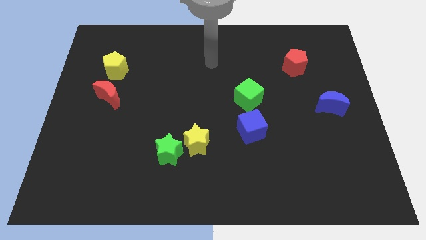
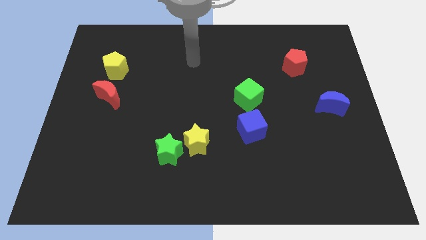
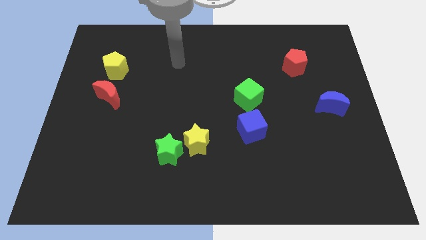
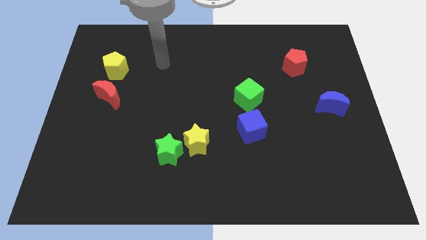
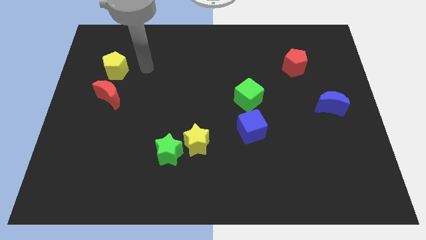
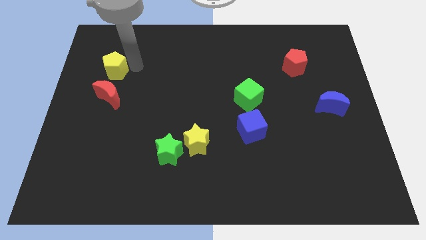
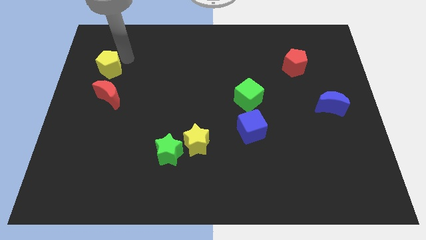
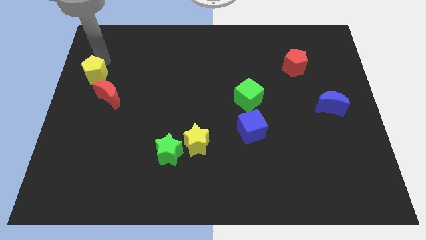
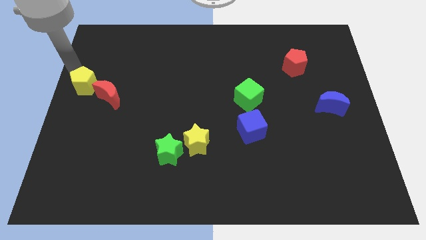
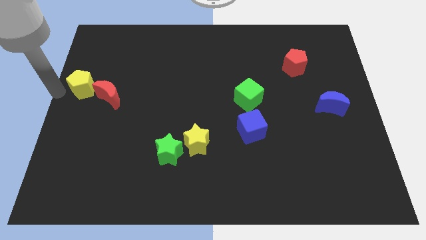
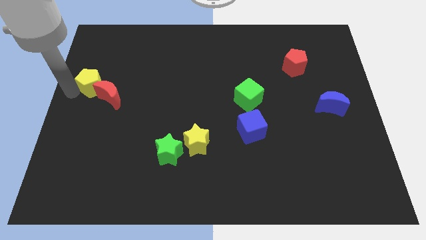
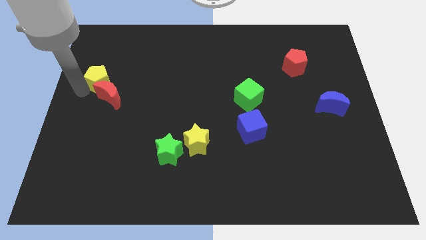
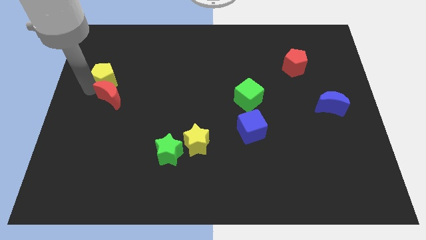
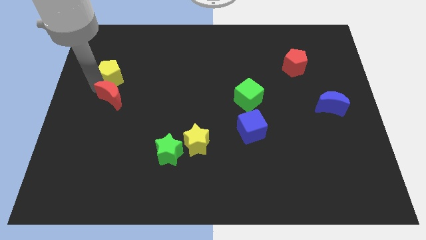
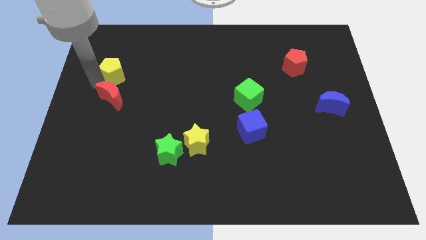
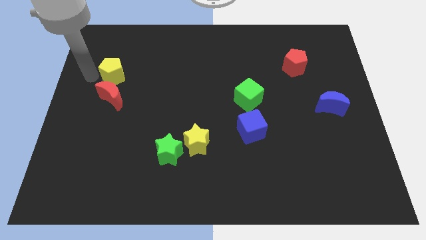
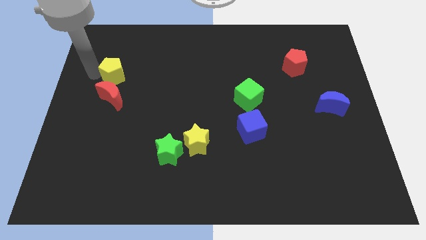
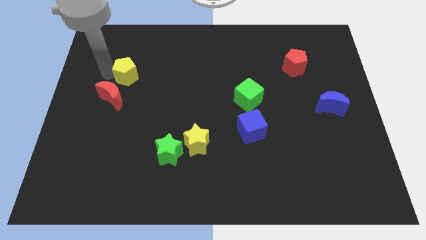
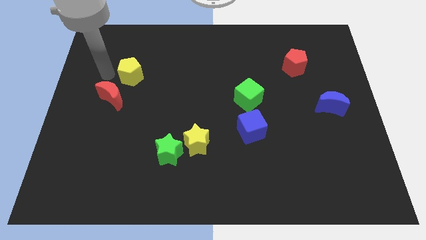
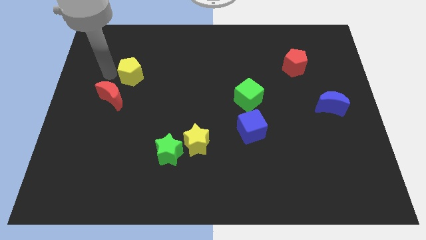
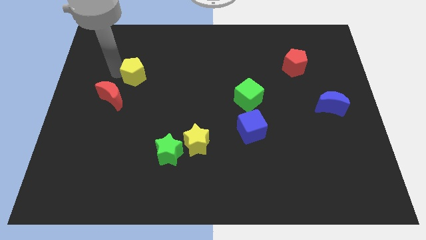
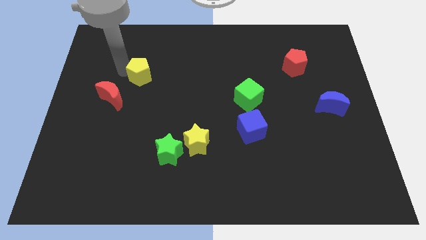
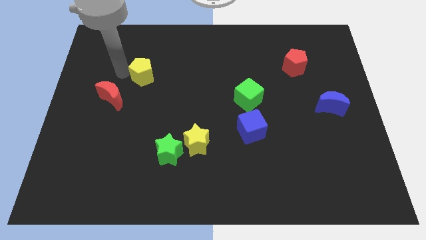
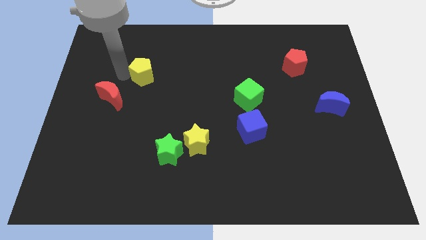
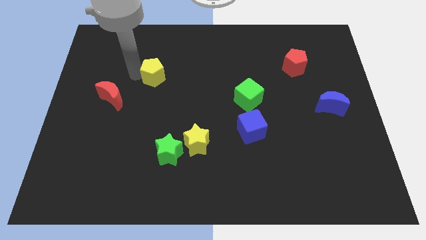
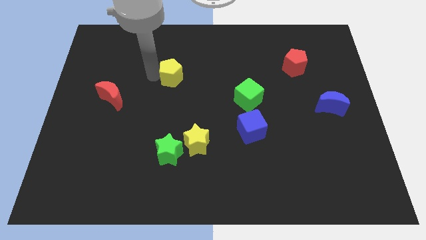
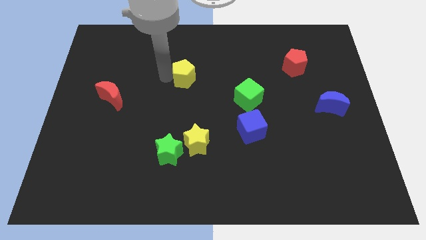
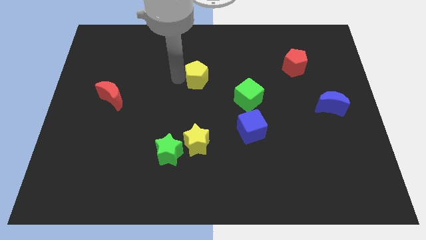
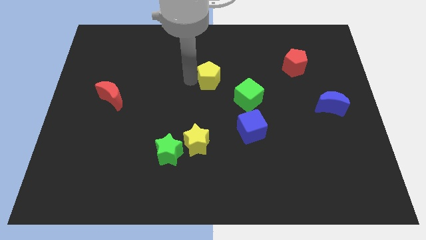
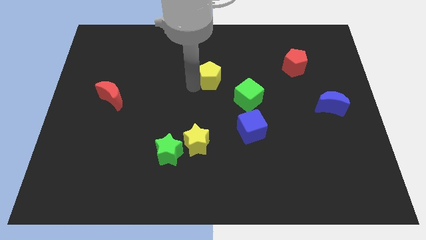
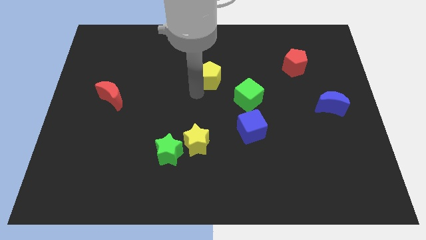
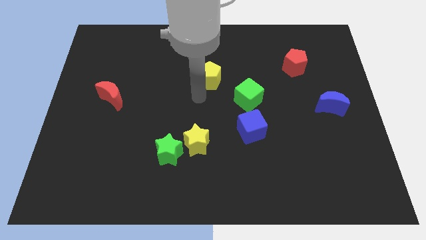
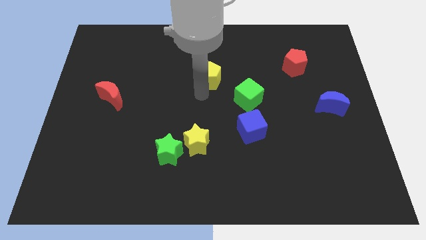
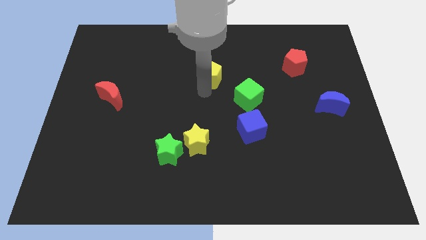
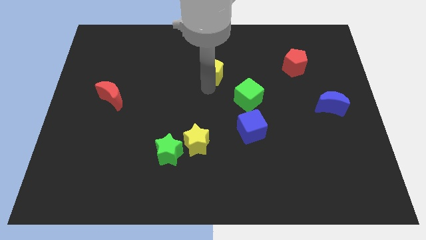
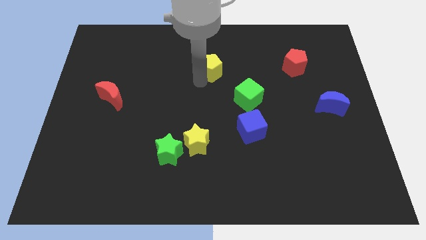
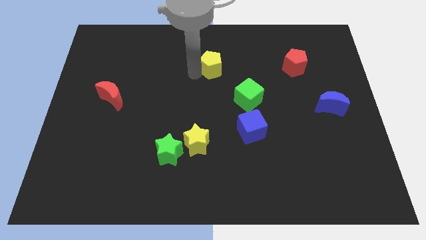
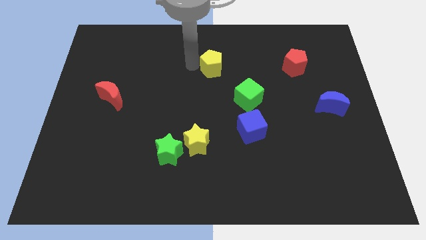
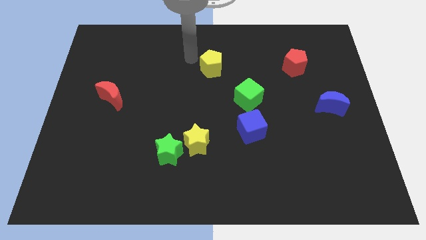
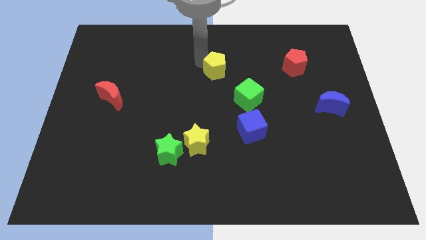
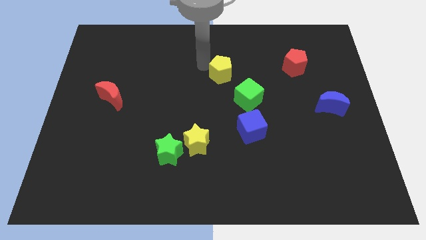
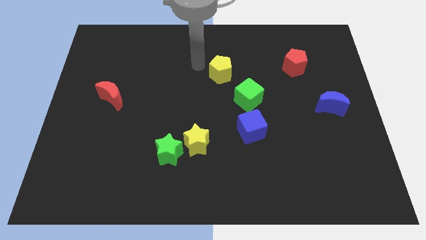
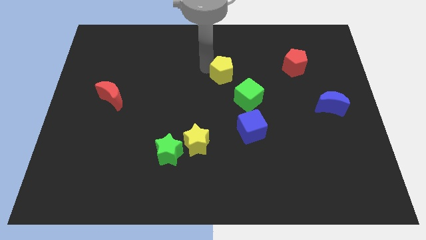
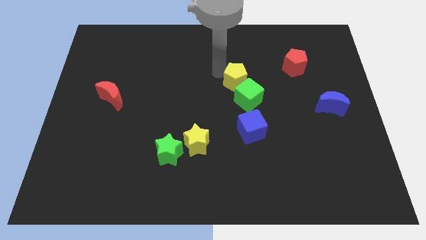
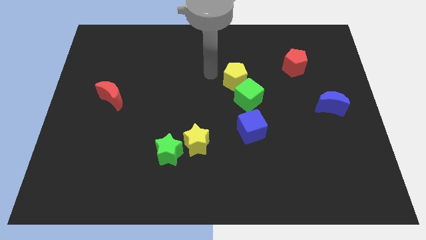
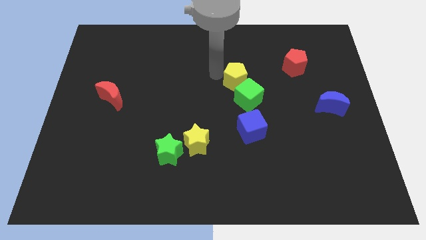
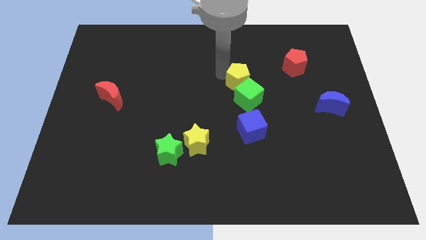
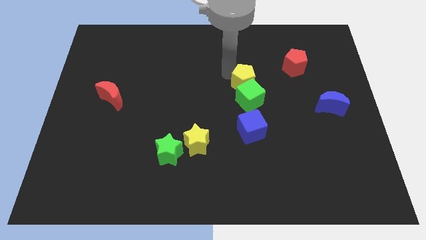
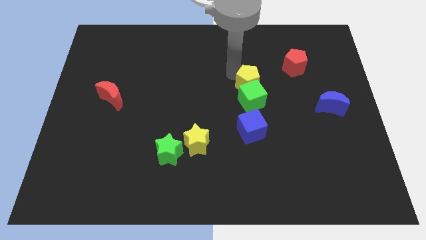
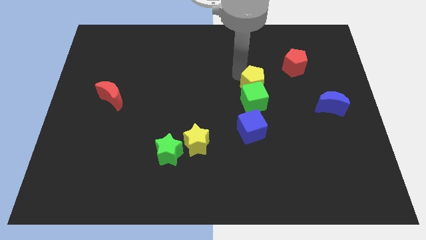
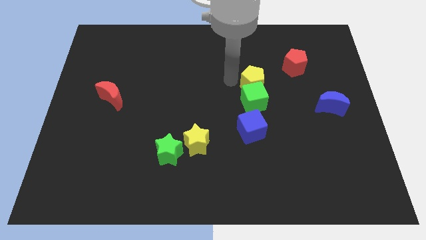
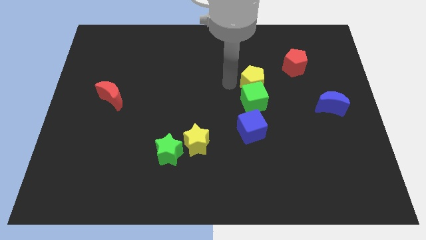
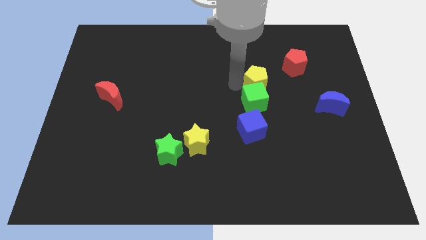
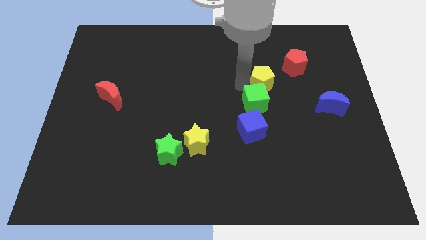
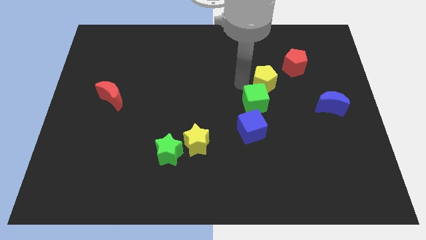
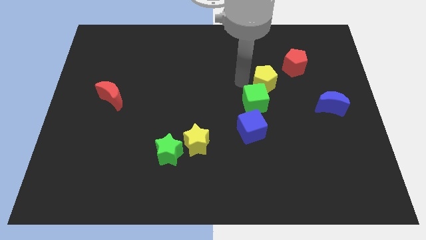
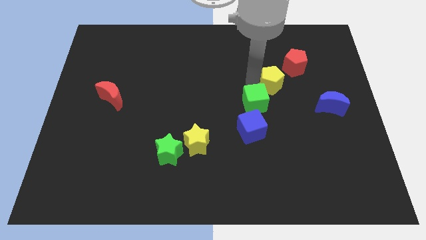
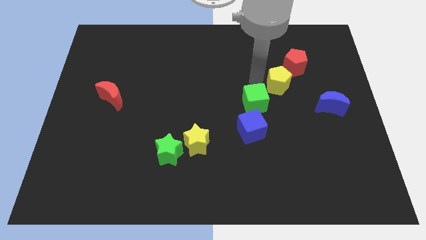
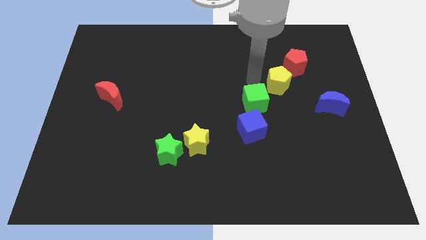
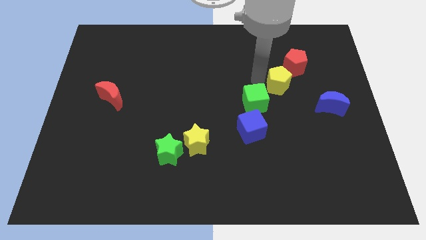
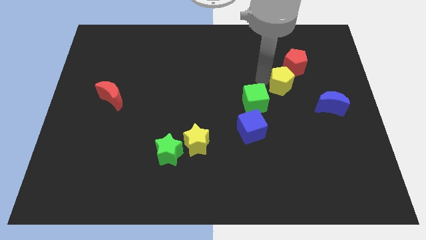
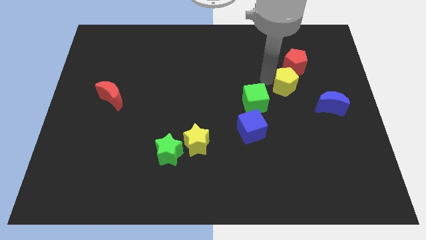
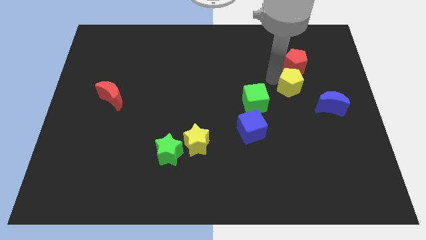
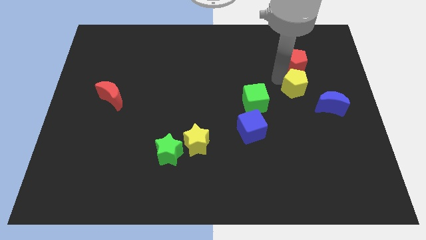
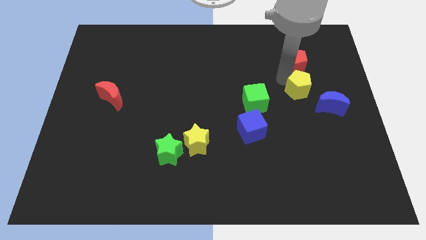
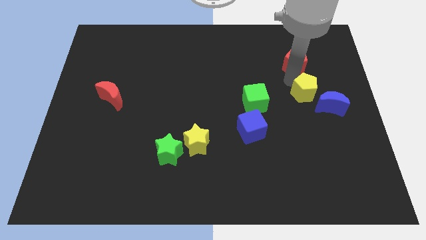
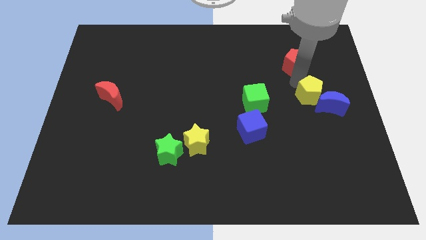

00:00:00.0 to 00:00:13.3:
push the yellow pentagon next to the blue moon
